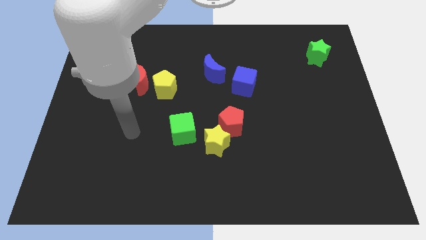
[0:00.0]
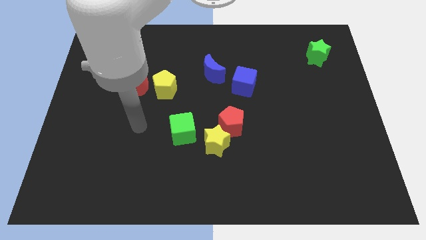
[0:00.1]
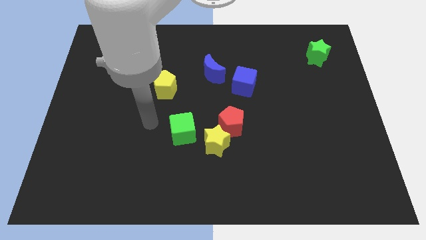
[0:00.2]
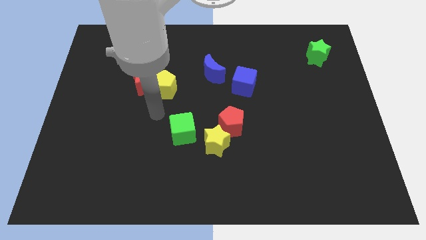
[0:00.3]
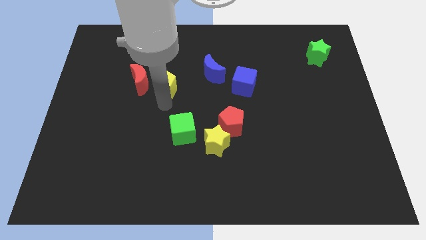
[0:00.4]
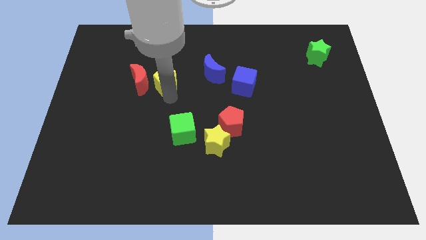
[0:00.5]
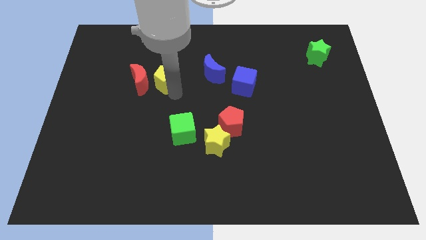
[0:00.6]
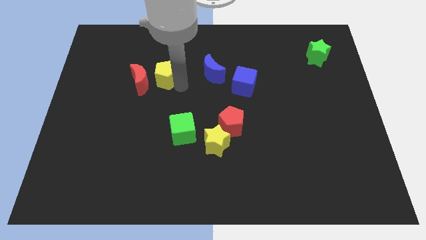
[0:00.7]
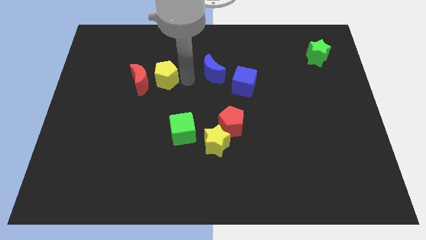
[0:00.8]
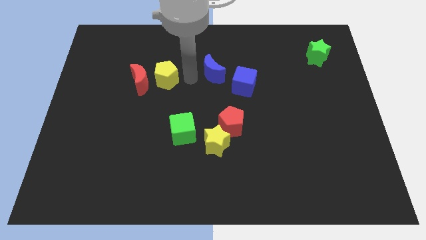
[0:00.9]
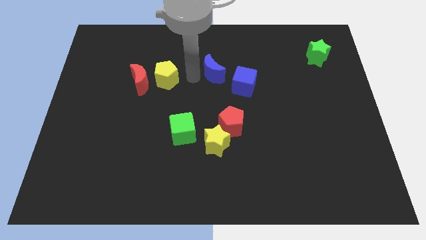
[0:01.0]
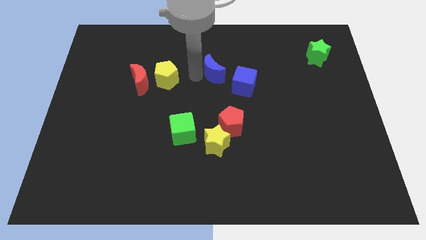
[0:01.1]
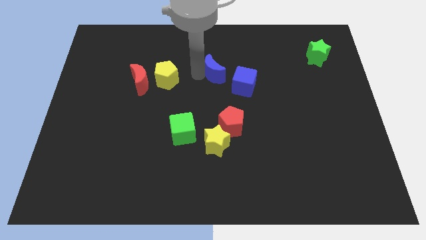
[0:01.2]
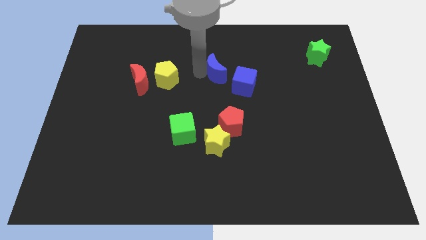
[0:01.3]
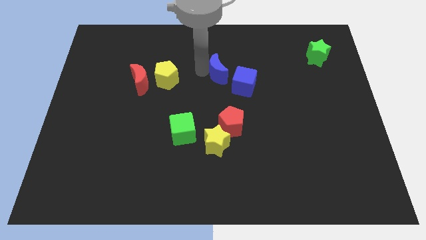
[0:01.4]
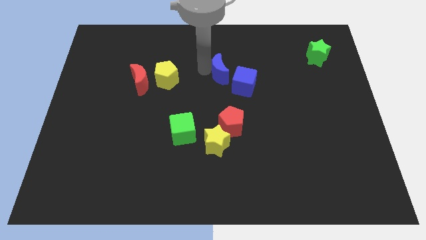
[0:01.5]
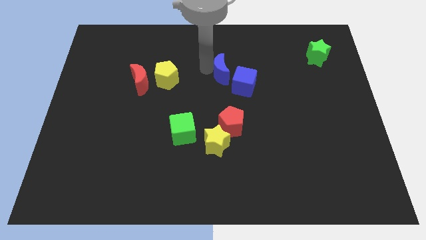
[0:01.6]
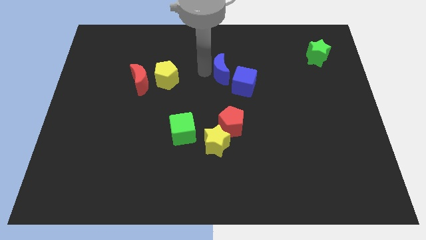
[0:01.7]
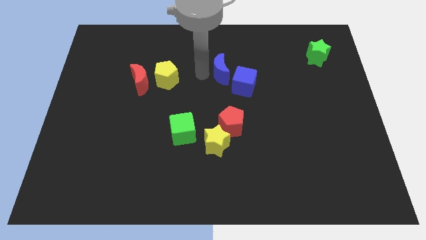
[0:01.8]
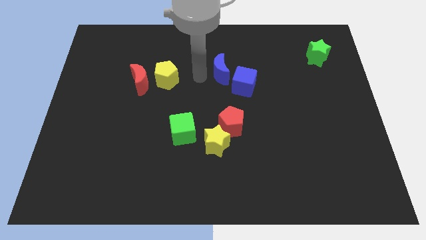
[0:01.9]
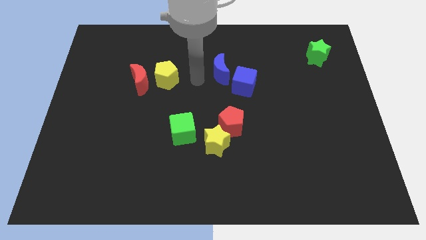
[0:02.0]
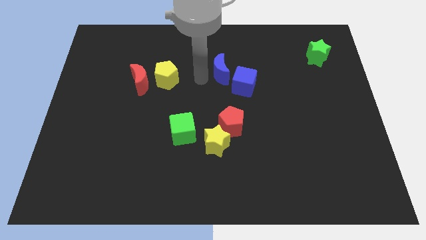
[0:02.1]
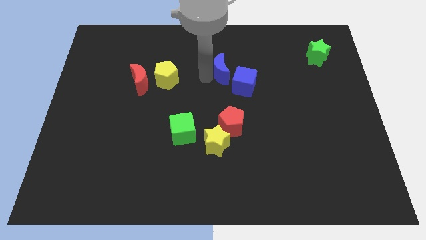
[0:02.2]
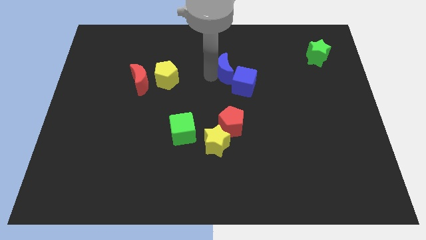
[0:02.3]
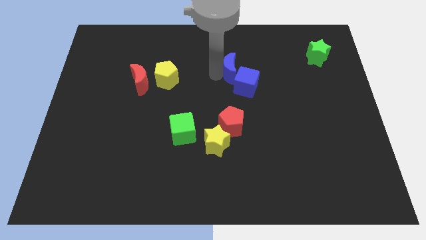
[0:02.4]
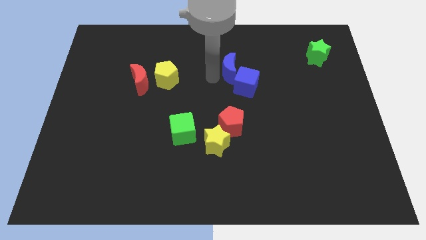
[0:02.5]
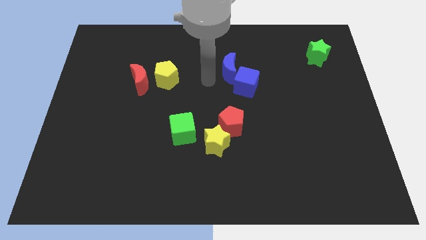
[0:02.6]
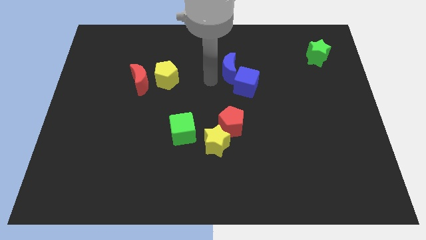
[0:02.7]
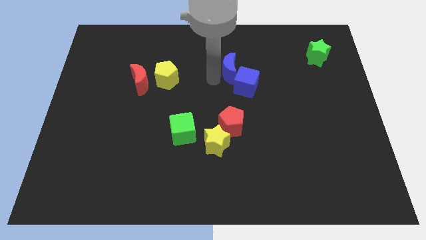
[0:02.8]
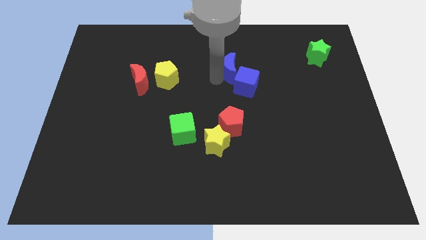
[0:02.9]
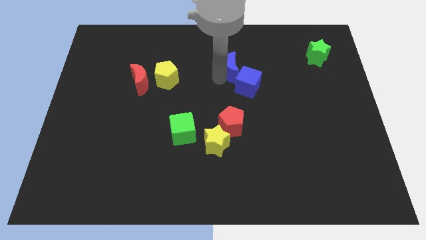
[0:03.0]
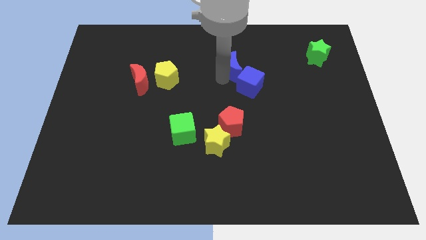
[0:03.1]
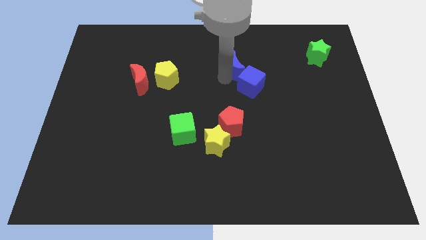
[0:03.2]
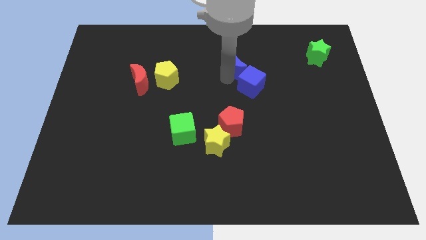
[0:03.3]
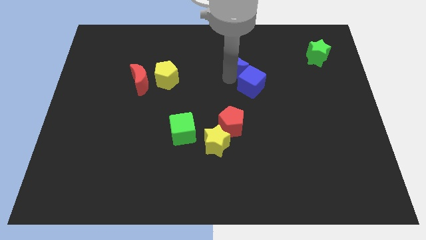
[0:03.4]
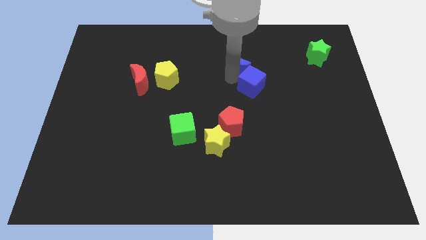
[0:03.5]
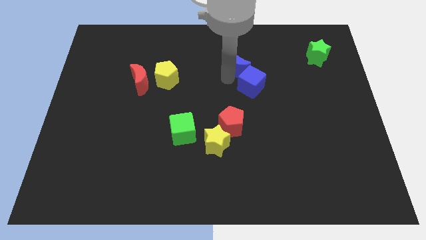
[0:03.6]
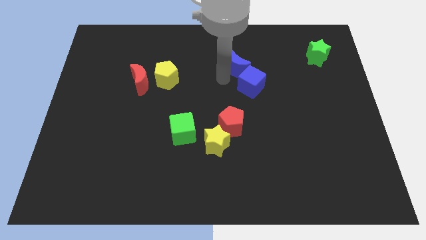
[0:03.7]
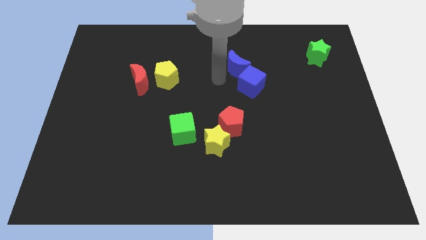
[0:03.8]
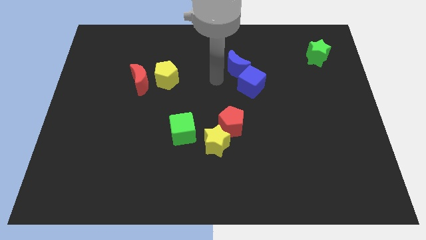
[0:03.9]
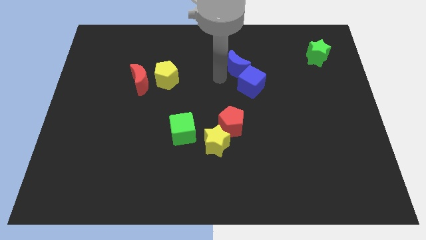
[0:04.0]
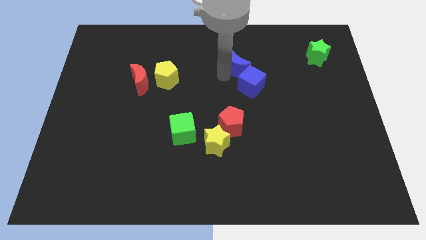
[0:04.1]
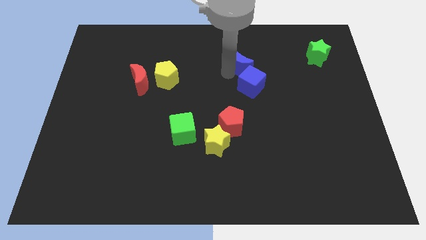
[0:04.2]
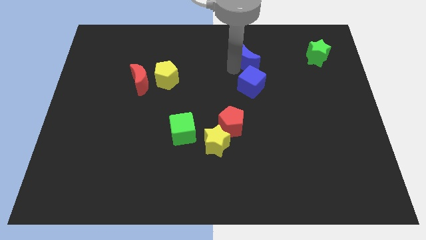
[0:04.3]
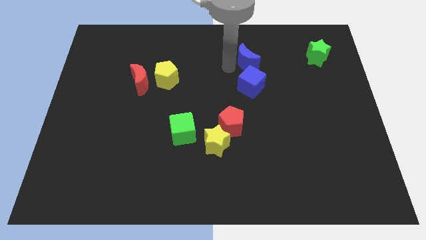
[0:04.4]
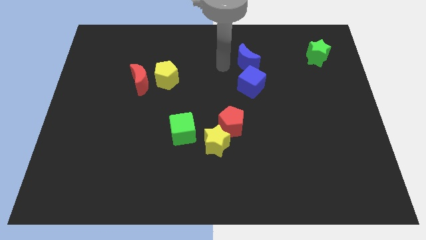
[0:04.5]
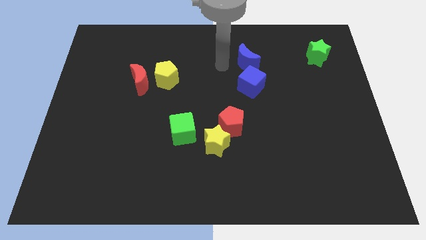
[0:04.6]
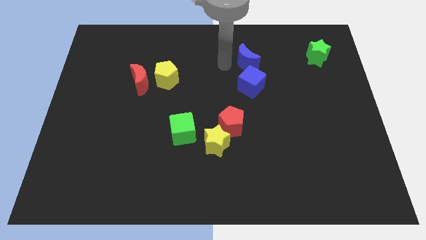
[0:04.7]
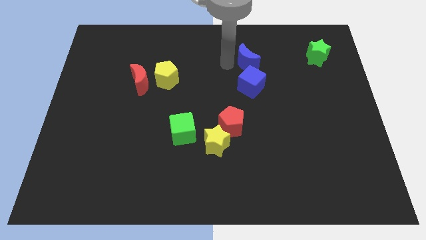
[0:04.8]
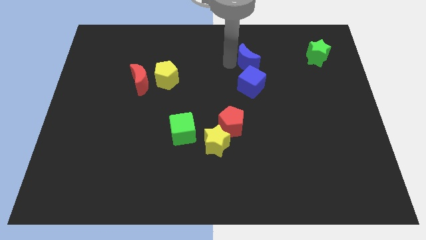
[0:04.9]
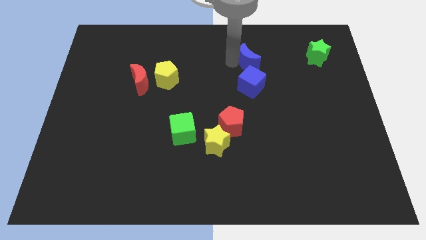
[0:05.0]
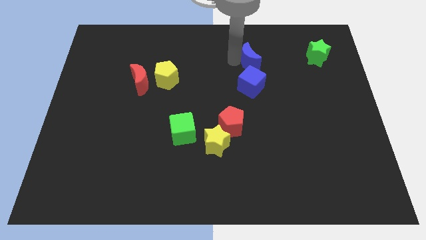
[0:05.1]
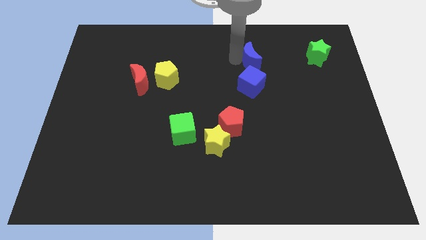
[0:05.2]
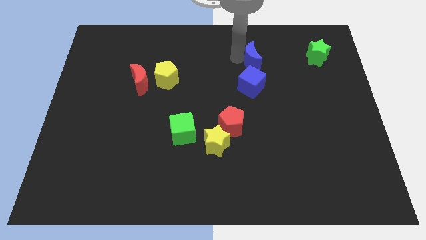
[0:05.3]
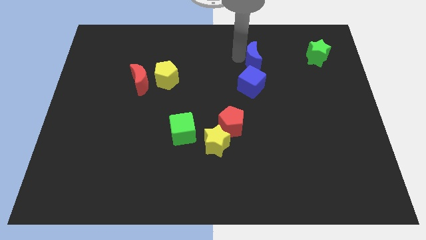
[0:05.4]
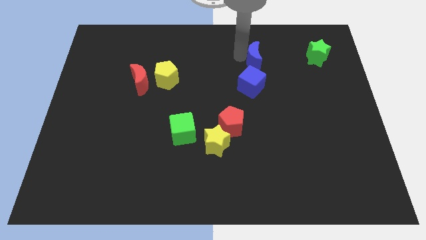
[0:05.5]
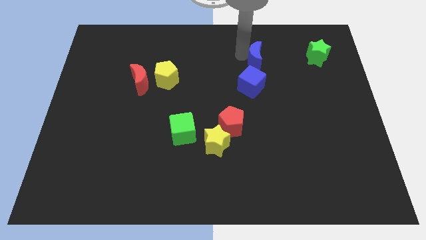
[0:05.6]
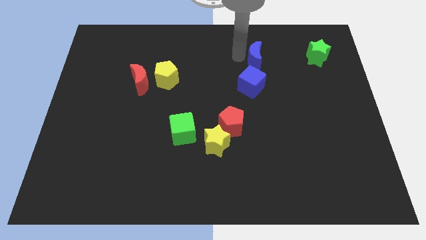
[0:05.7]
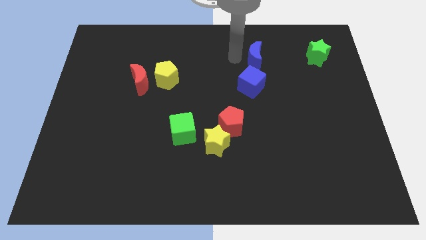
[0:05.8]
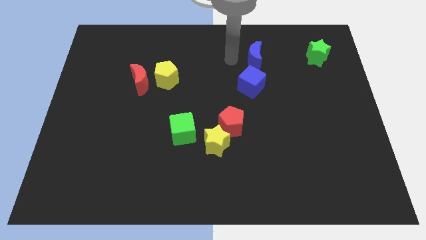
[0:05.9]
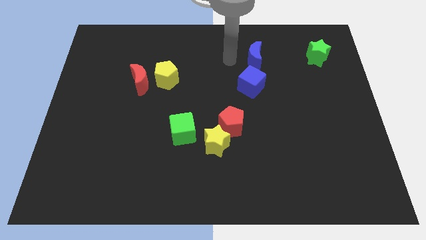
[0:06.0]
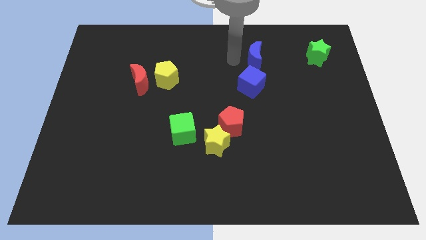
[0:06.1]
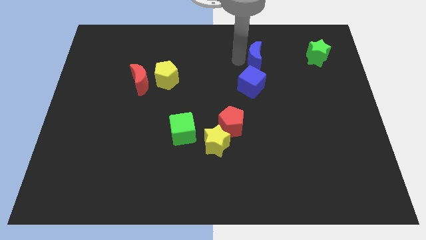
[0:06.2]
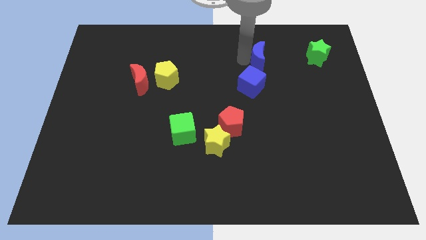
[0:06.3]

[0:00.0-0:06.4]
slide the blue moon to the left side of the green star
